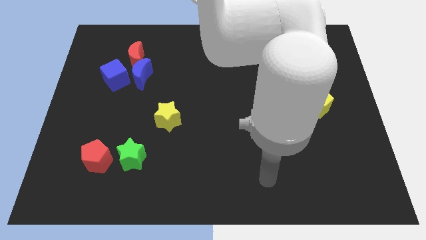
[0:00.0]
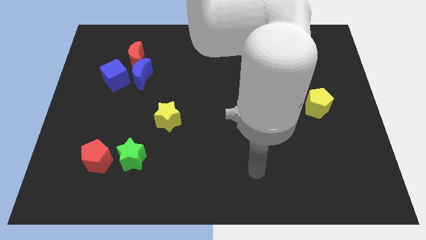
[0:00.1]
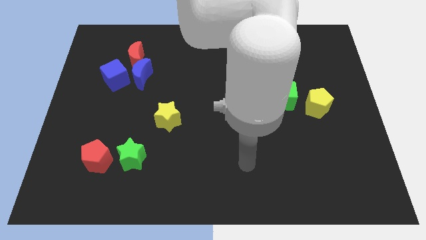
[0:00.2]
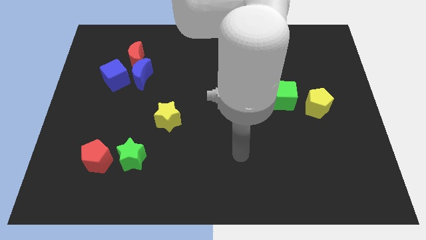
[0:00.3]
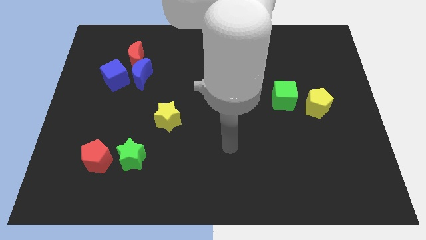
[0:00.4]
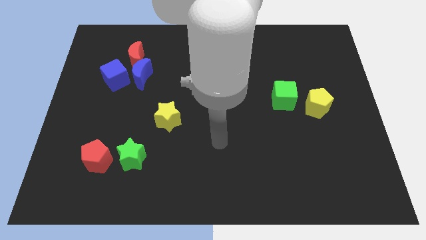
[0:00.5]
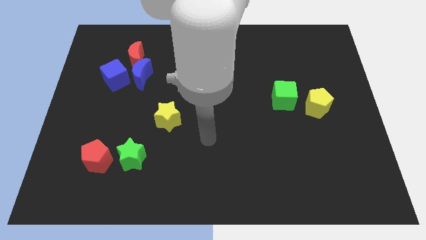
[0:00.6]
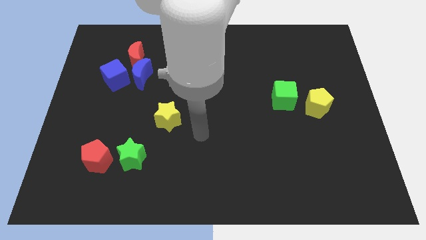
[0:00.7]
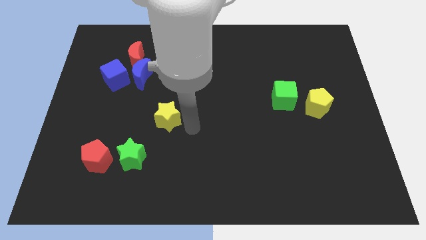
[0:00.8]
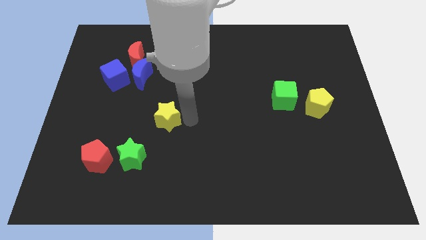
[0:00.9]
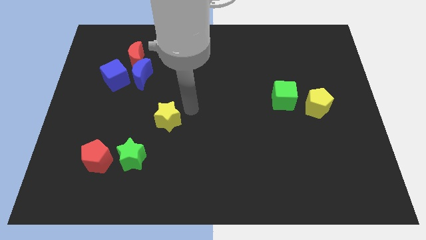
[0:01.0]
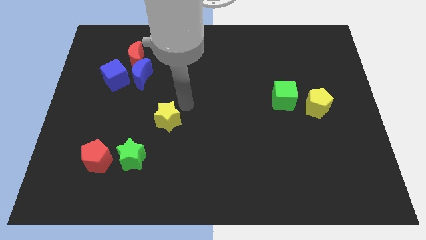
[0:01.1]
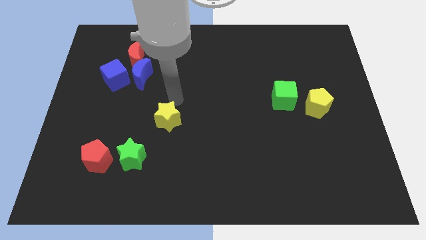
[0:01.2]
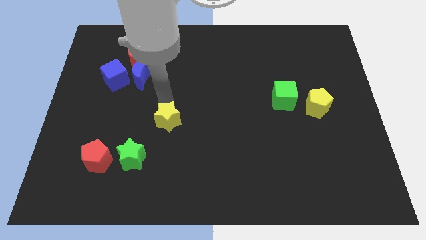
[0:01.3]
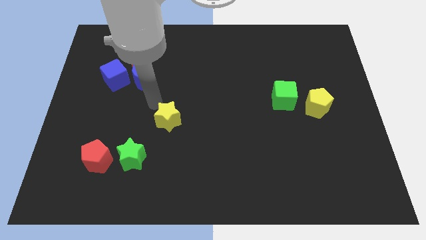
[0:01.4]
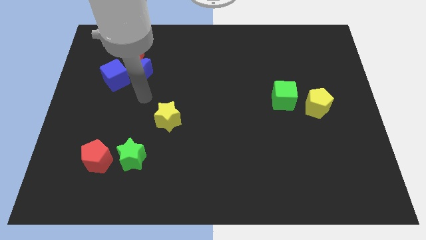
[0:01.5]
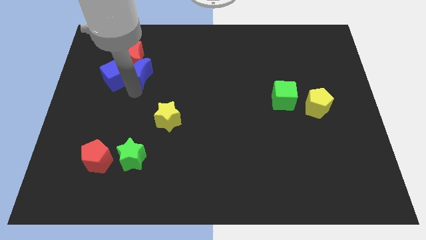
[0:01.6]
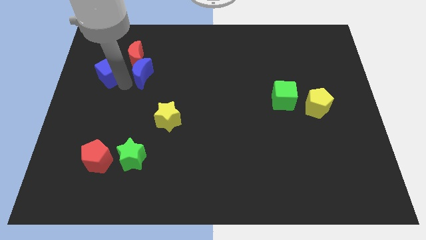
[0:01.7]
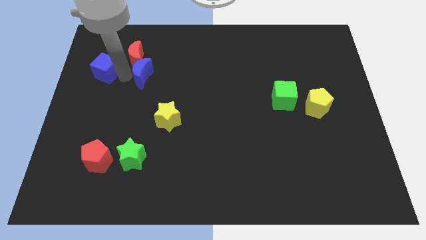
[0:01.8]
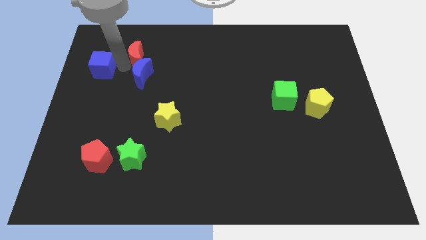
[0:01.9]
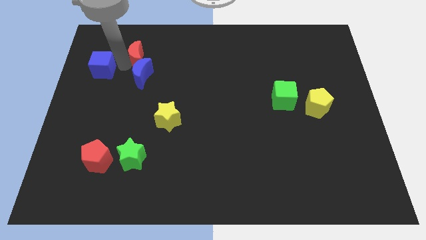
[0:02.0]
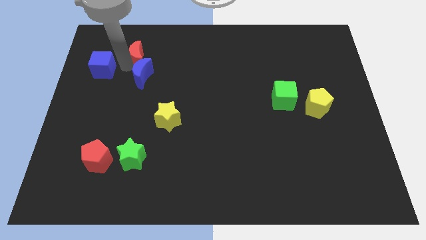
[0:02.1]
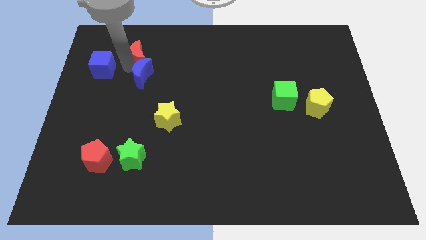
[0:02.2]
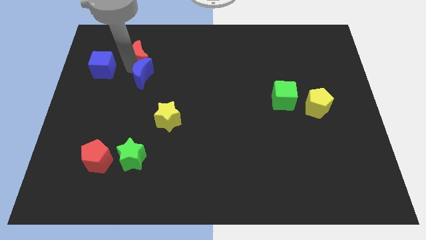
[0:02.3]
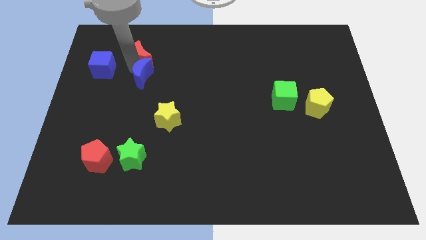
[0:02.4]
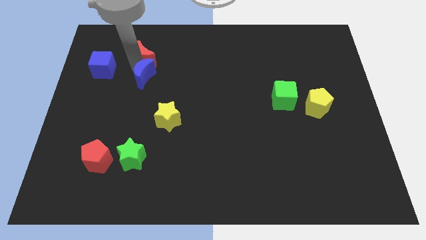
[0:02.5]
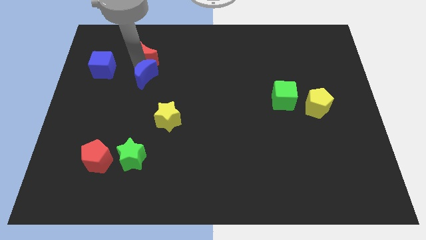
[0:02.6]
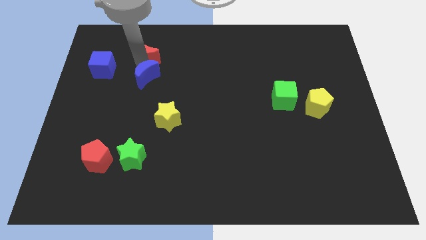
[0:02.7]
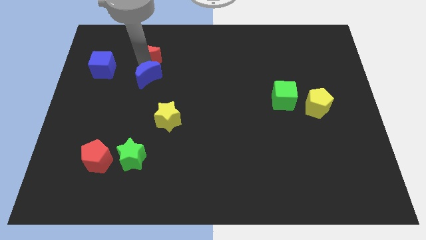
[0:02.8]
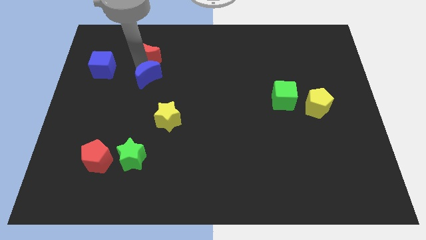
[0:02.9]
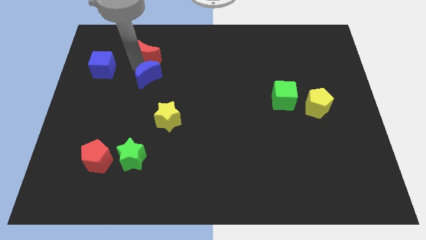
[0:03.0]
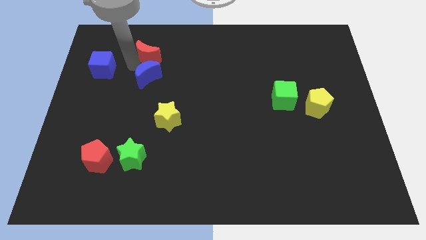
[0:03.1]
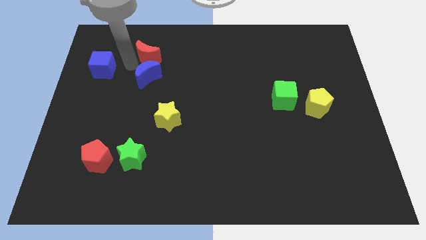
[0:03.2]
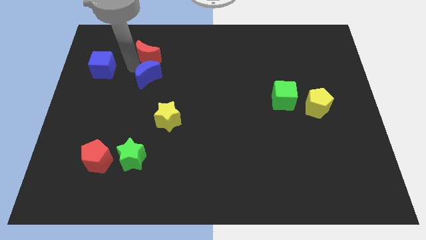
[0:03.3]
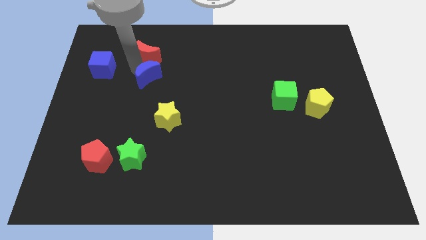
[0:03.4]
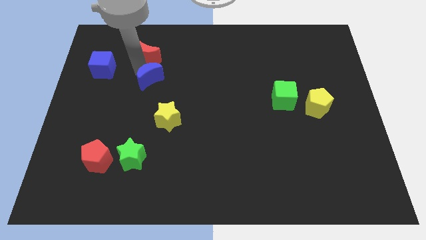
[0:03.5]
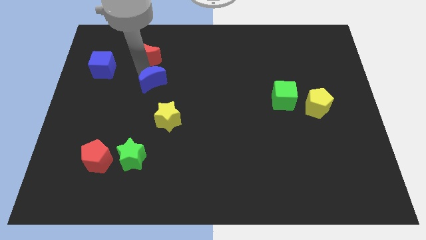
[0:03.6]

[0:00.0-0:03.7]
separate the blue moon from the red moon and blue cube

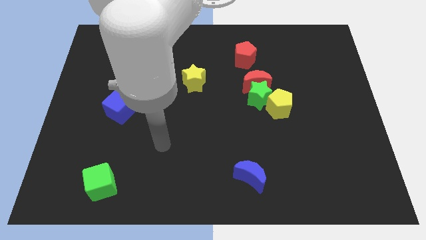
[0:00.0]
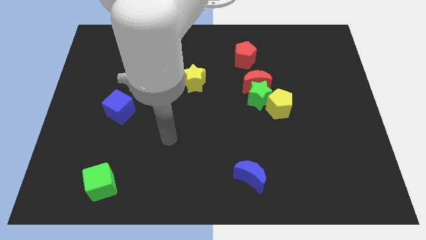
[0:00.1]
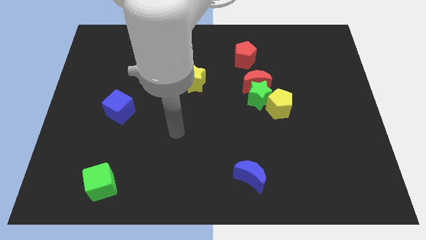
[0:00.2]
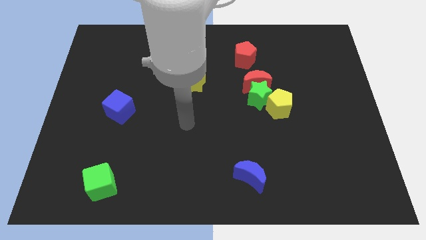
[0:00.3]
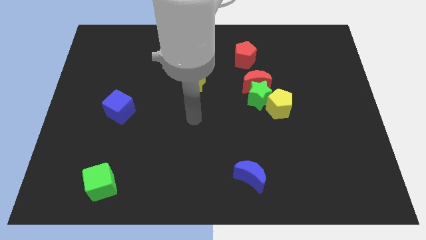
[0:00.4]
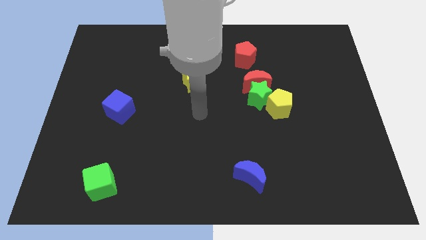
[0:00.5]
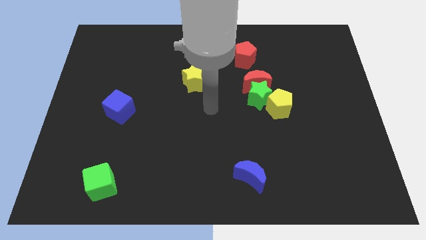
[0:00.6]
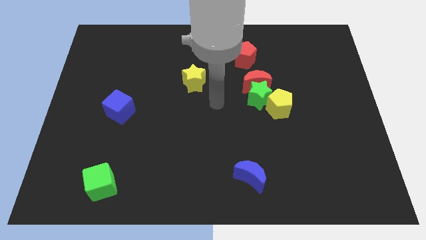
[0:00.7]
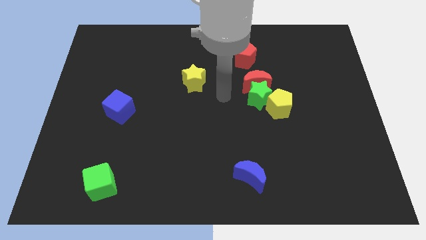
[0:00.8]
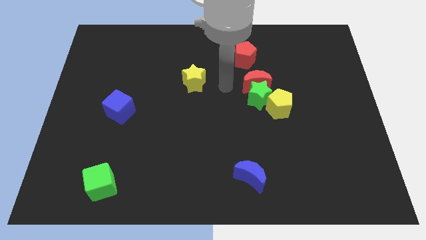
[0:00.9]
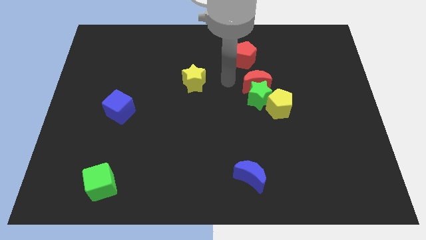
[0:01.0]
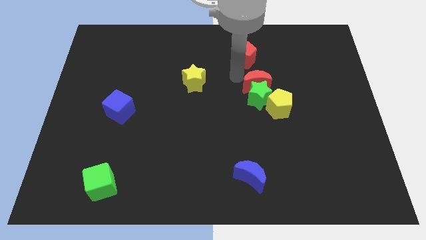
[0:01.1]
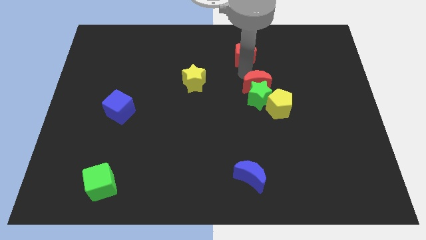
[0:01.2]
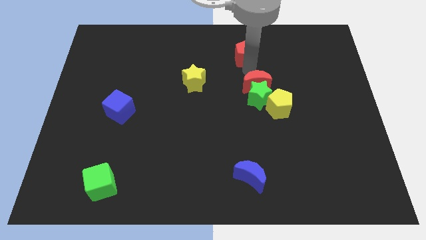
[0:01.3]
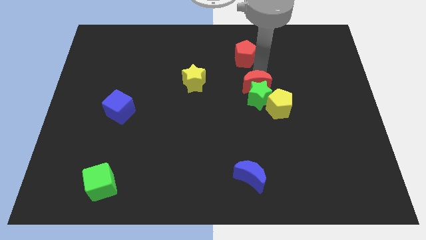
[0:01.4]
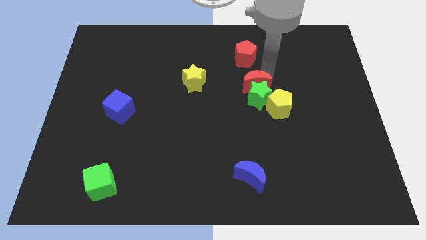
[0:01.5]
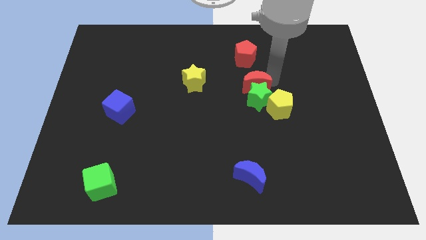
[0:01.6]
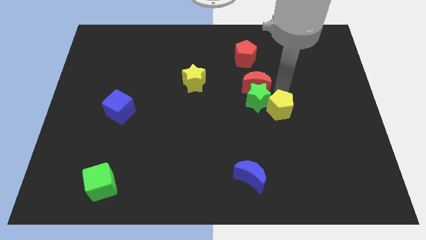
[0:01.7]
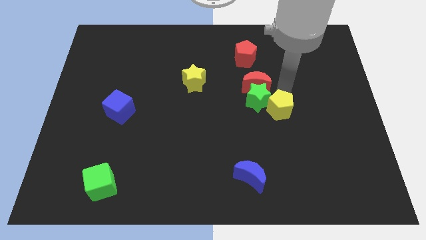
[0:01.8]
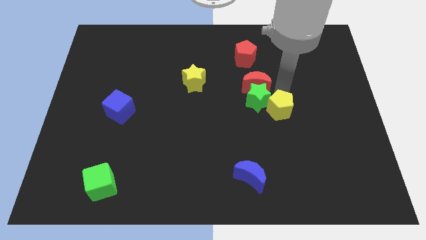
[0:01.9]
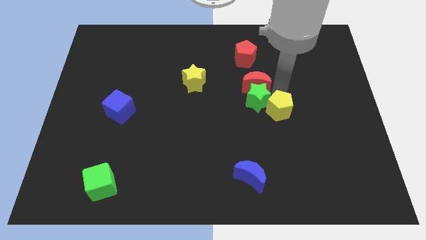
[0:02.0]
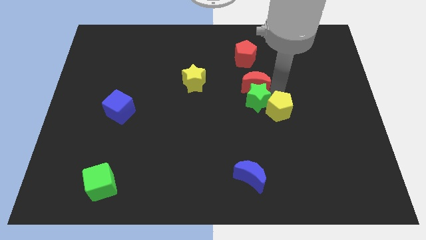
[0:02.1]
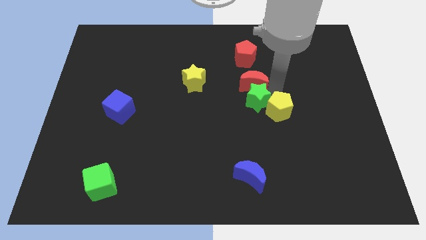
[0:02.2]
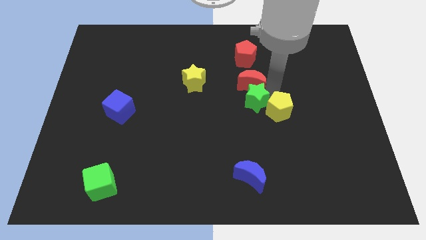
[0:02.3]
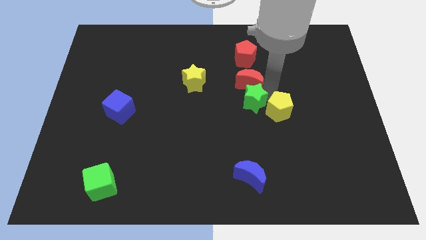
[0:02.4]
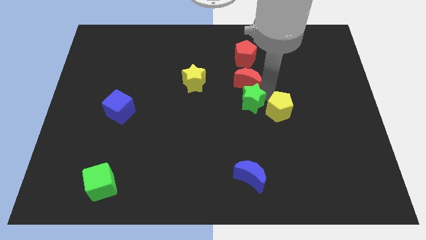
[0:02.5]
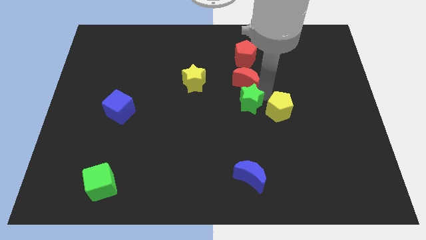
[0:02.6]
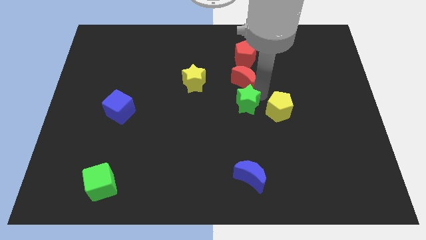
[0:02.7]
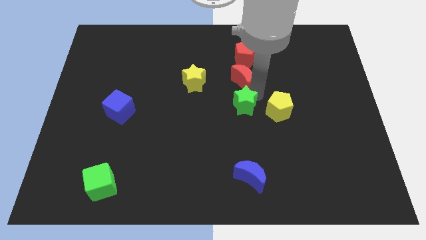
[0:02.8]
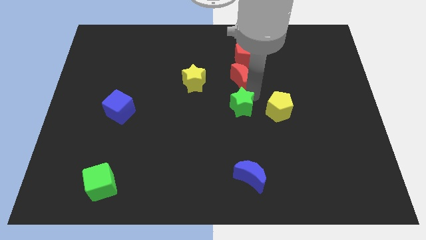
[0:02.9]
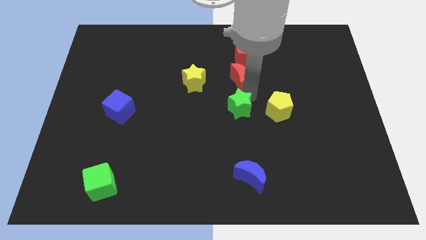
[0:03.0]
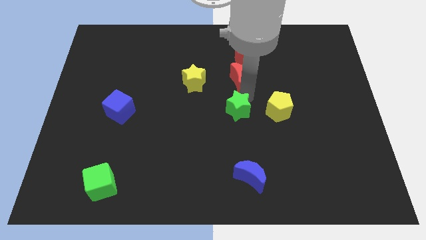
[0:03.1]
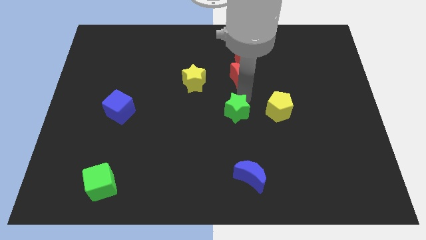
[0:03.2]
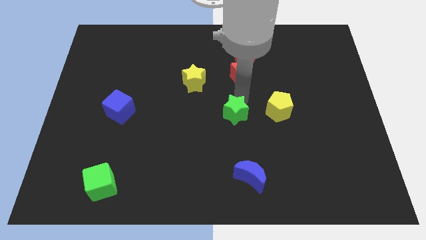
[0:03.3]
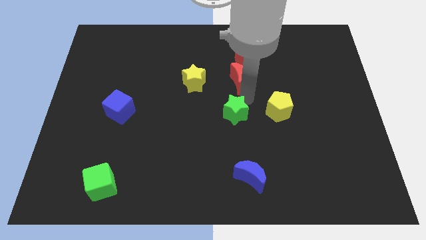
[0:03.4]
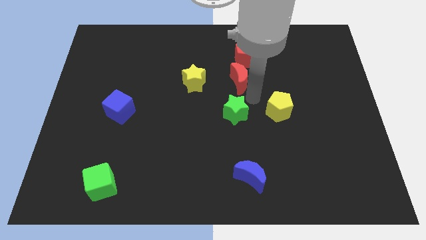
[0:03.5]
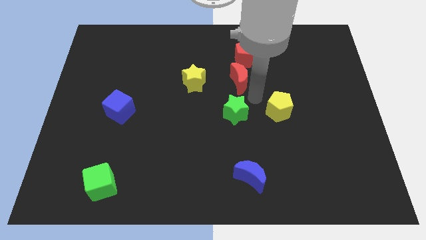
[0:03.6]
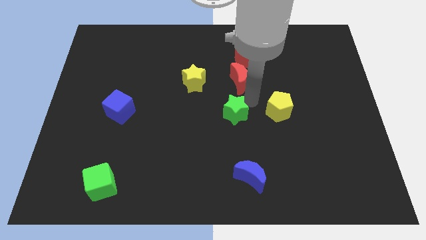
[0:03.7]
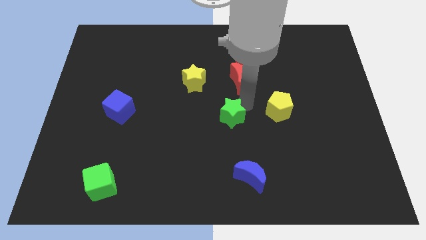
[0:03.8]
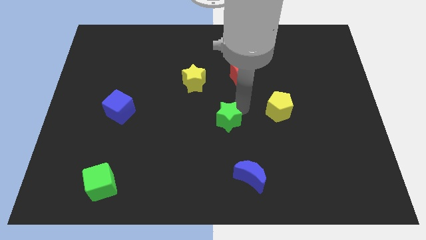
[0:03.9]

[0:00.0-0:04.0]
pull the green star apart from the red moon and yellow pentagon

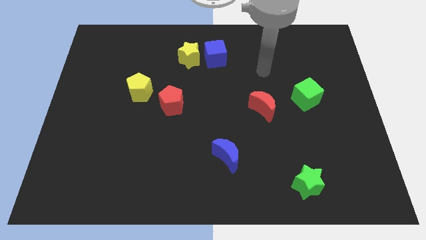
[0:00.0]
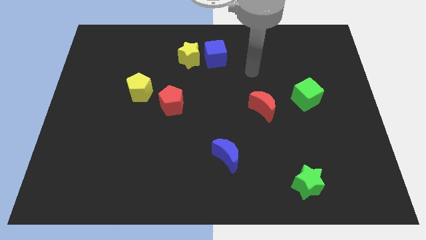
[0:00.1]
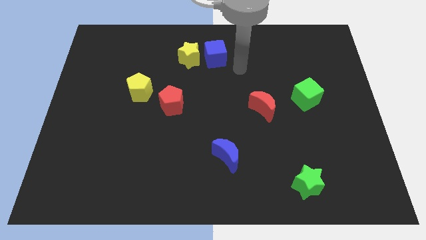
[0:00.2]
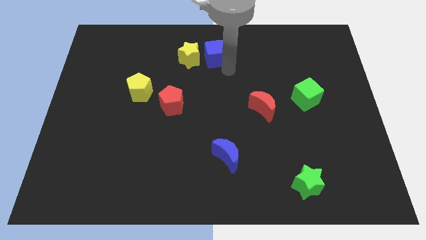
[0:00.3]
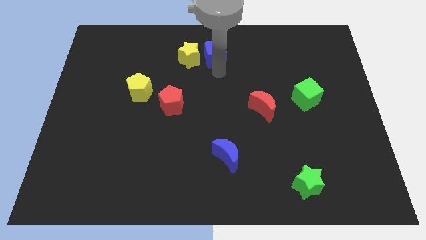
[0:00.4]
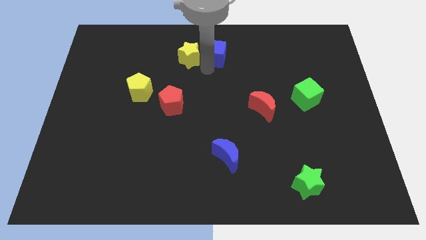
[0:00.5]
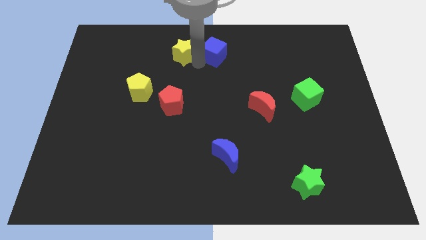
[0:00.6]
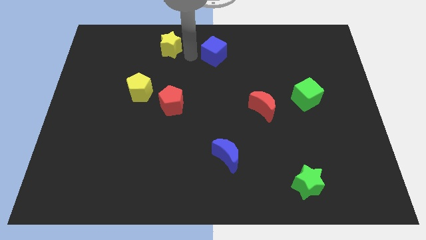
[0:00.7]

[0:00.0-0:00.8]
separate the blue cube from the yellow star

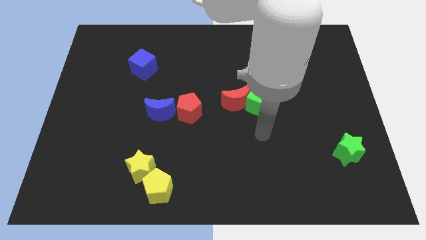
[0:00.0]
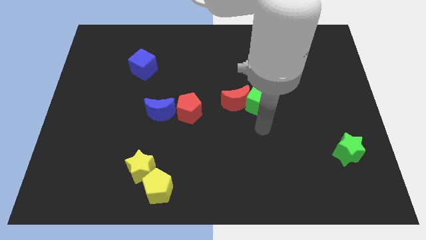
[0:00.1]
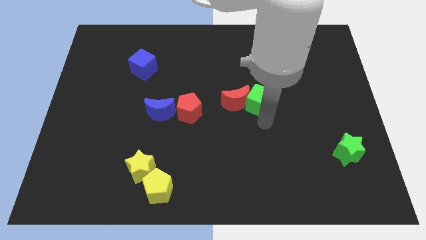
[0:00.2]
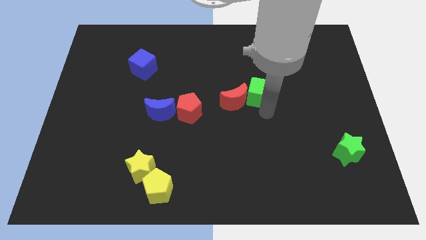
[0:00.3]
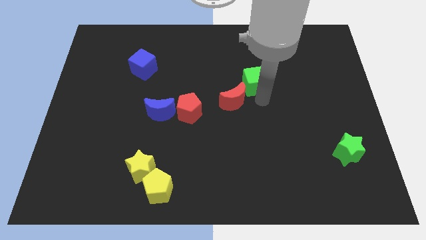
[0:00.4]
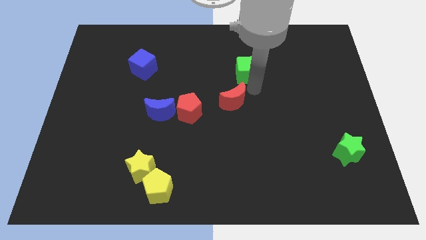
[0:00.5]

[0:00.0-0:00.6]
pull the red moon apart from the green cube

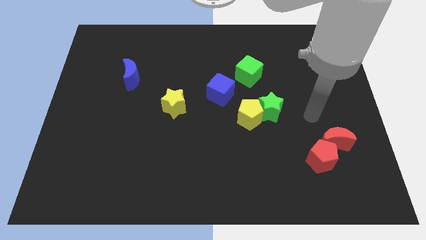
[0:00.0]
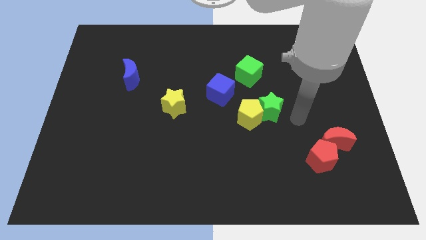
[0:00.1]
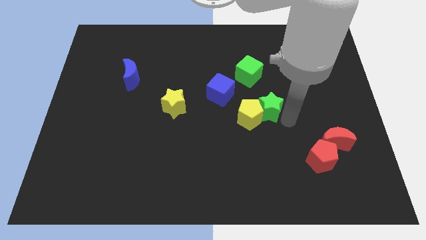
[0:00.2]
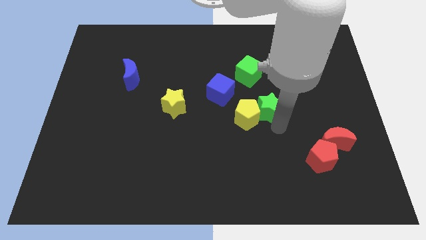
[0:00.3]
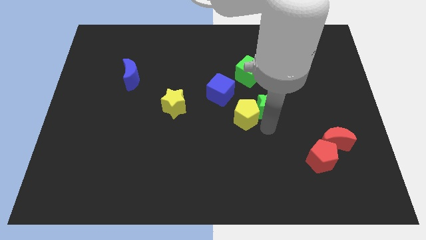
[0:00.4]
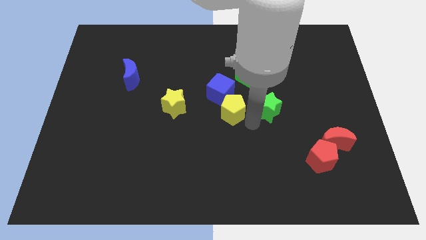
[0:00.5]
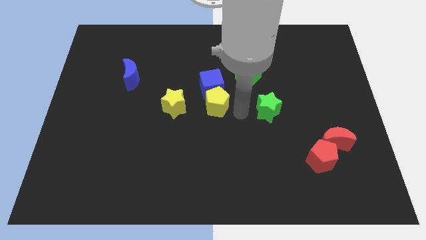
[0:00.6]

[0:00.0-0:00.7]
separate the green star from the yellow pentagon
